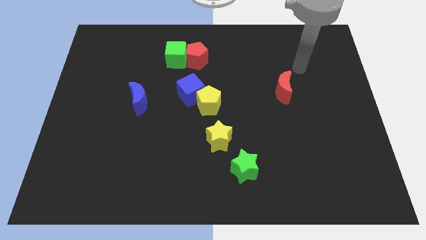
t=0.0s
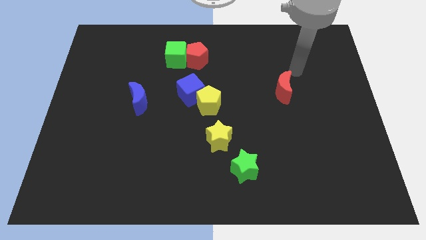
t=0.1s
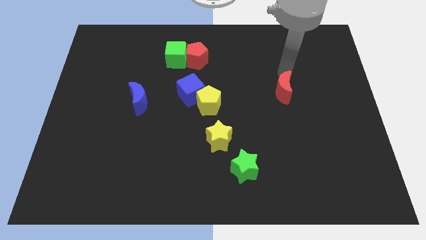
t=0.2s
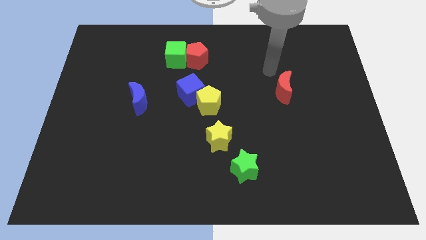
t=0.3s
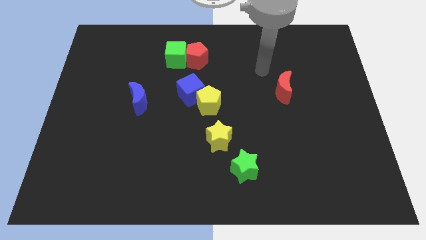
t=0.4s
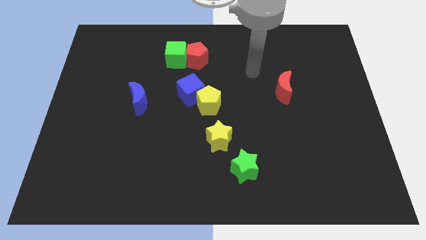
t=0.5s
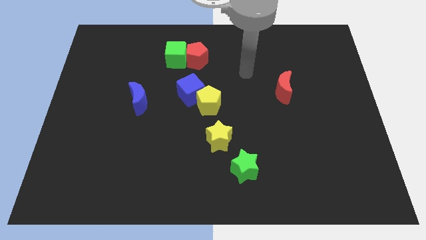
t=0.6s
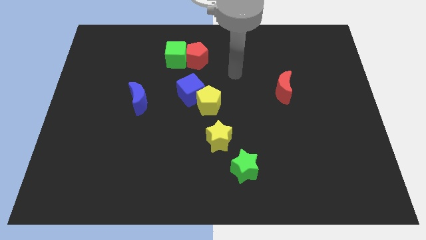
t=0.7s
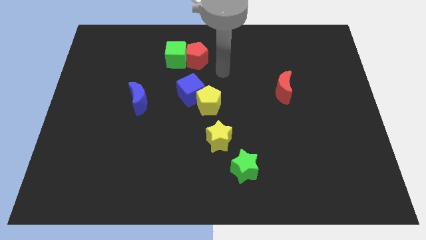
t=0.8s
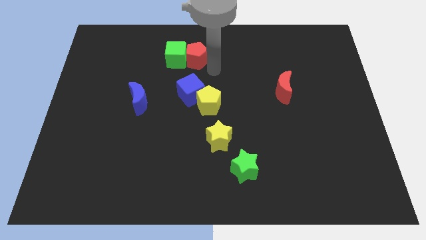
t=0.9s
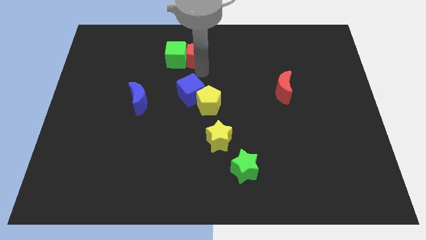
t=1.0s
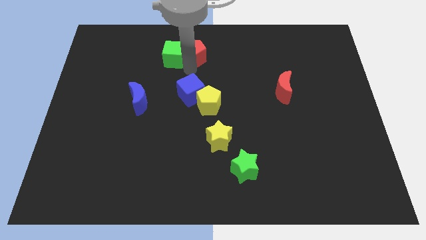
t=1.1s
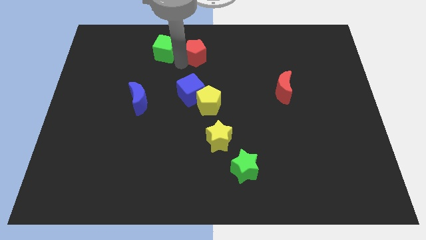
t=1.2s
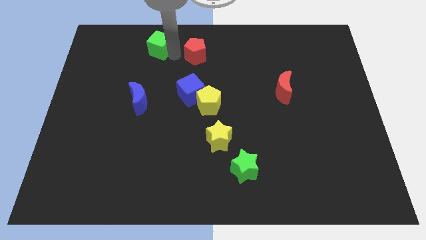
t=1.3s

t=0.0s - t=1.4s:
move the red pentagon away from the green cube

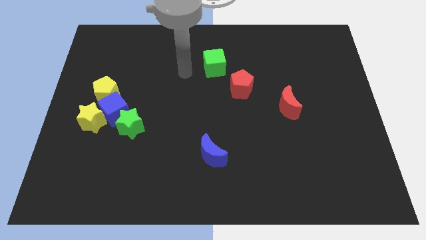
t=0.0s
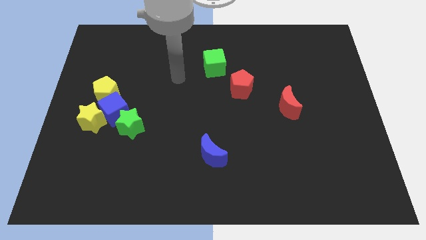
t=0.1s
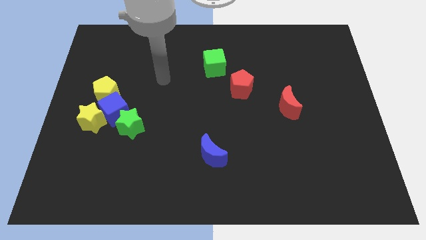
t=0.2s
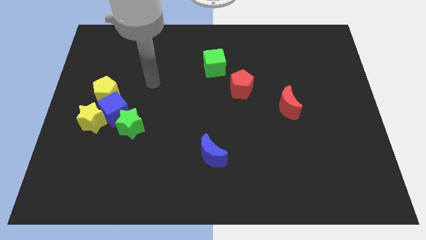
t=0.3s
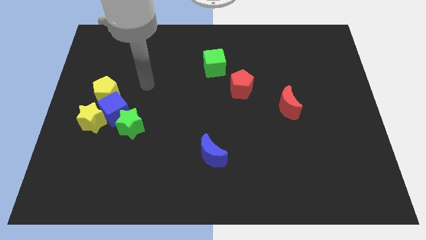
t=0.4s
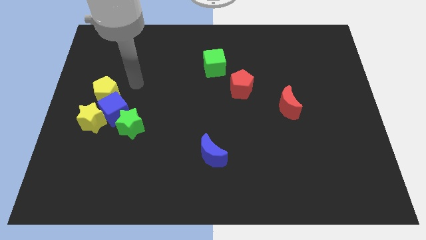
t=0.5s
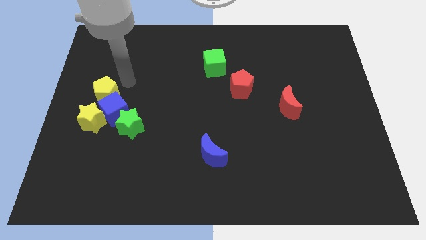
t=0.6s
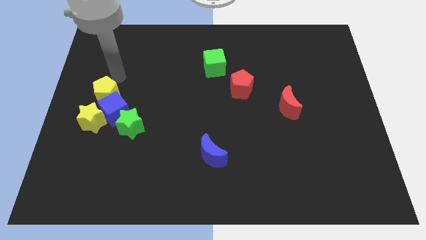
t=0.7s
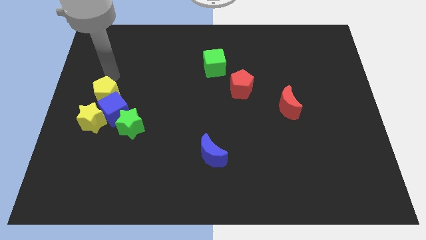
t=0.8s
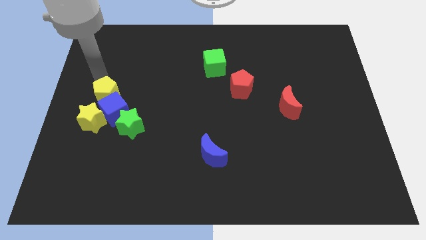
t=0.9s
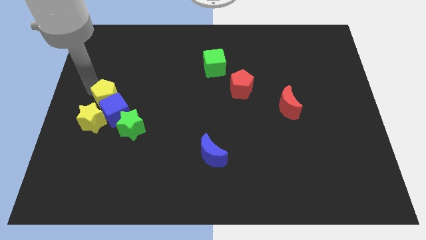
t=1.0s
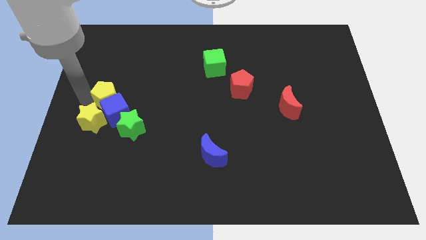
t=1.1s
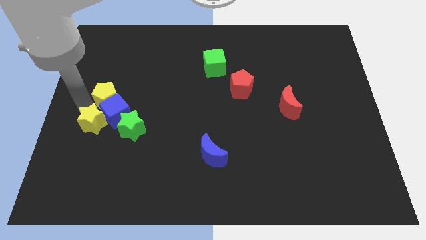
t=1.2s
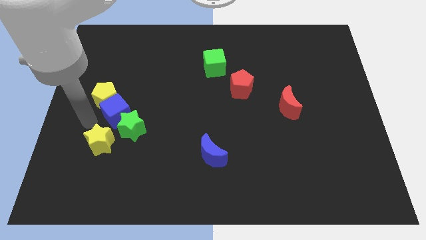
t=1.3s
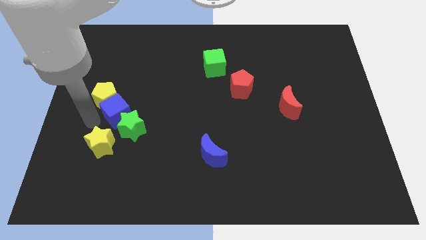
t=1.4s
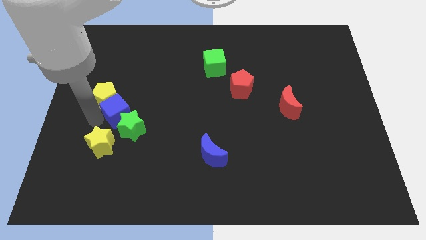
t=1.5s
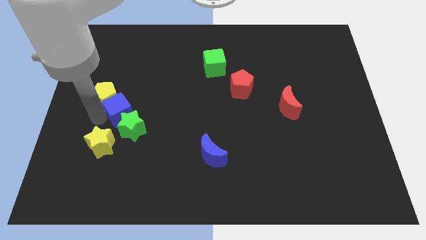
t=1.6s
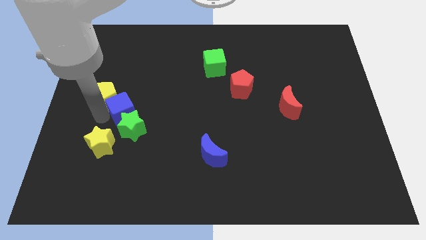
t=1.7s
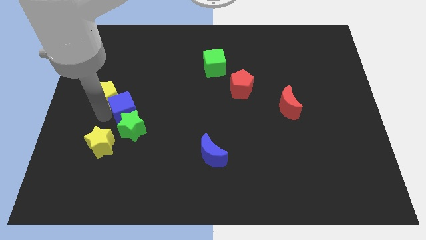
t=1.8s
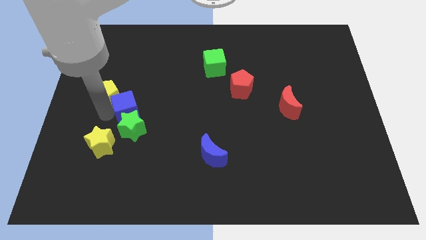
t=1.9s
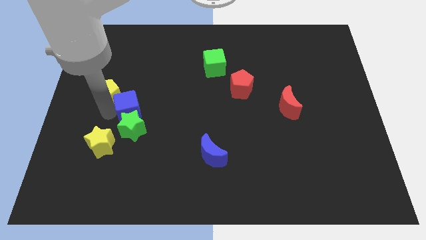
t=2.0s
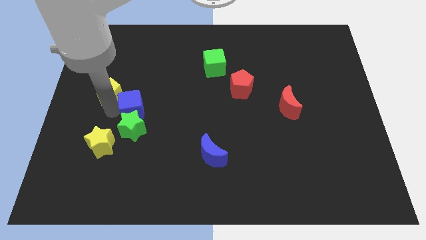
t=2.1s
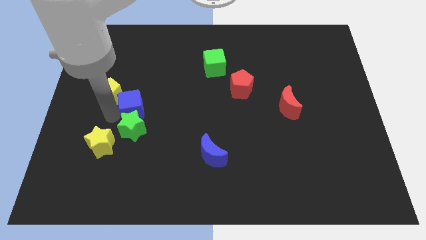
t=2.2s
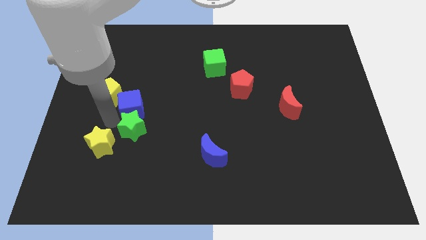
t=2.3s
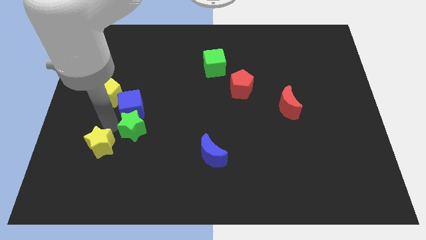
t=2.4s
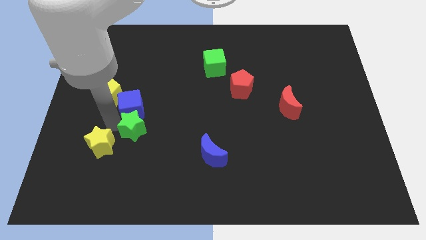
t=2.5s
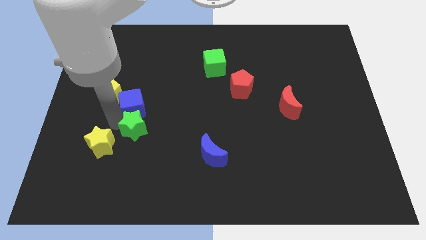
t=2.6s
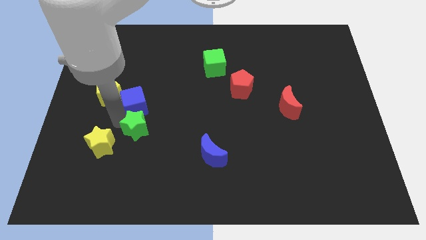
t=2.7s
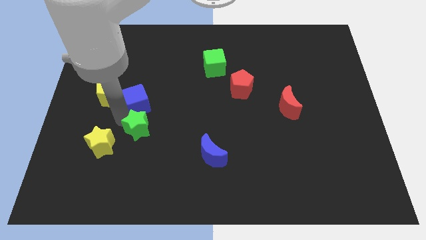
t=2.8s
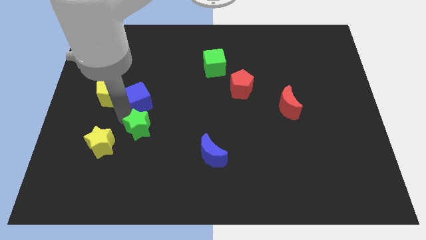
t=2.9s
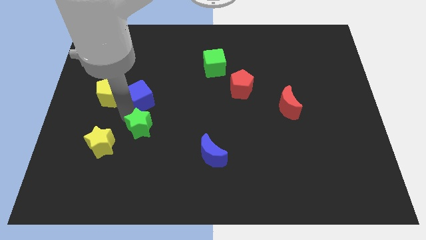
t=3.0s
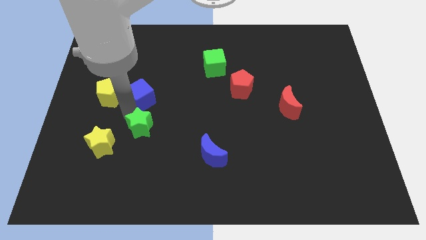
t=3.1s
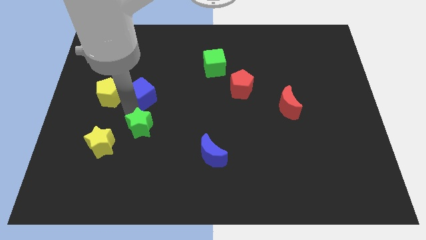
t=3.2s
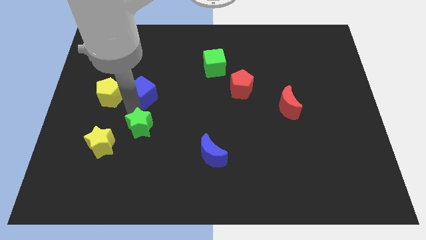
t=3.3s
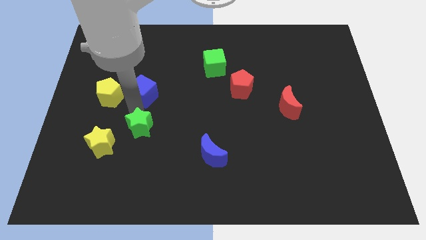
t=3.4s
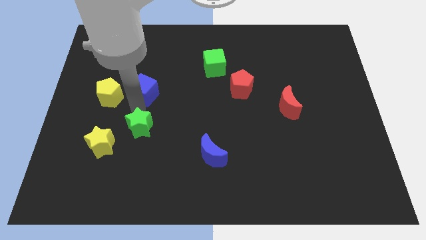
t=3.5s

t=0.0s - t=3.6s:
pull the blue cube apart from the group

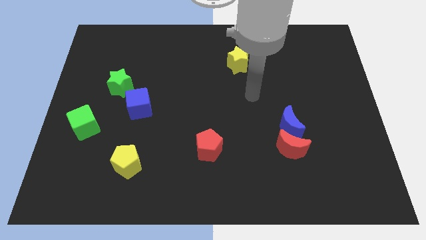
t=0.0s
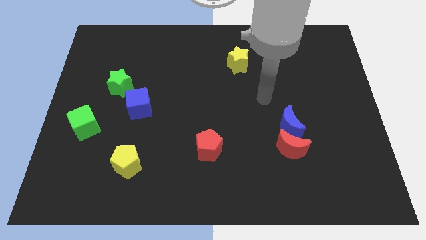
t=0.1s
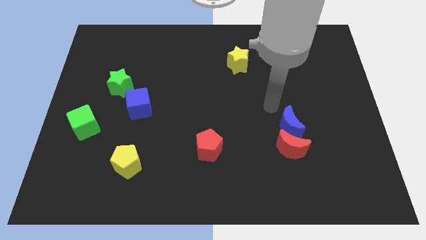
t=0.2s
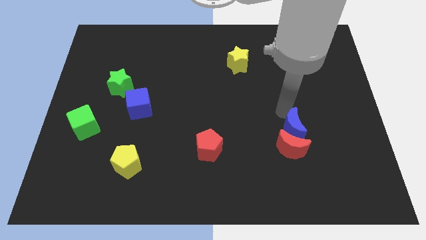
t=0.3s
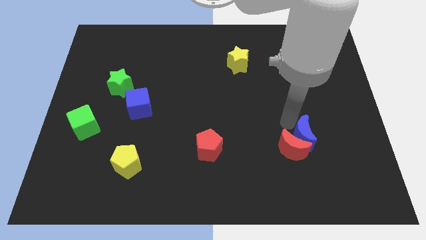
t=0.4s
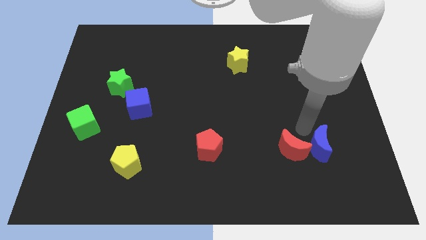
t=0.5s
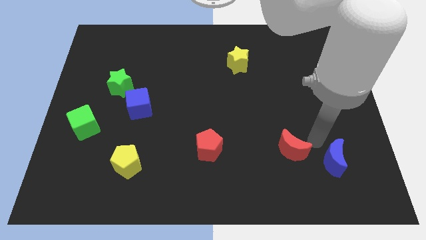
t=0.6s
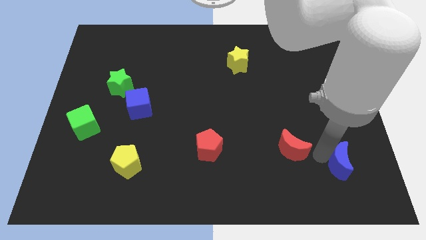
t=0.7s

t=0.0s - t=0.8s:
pull the red moon apart from the blue moon

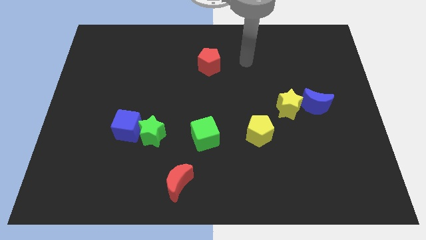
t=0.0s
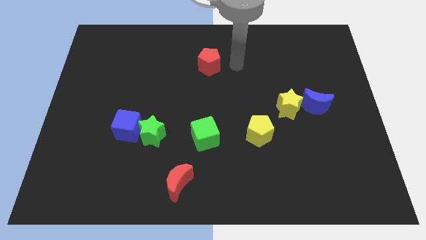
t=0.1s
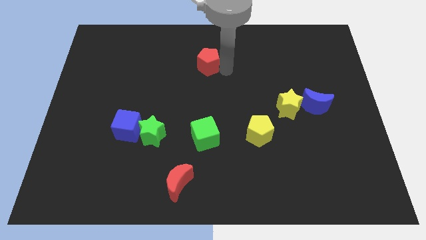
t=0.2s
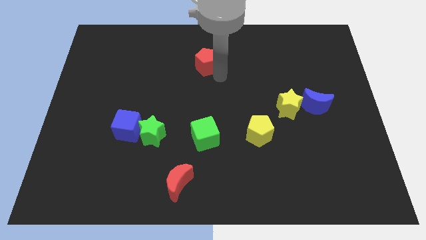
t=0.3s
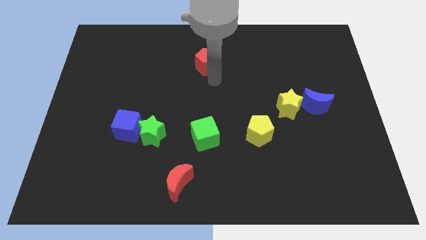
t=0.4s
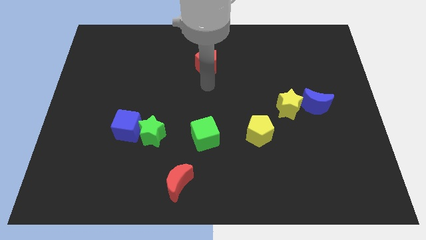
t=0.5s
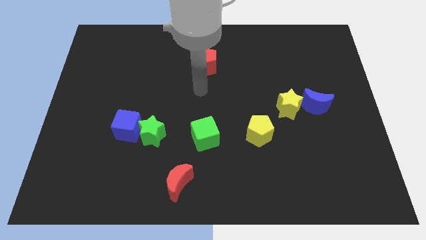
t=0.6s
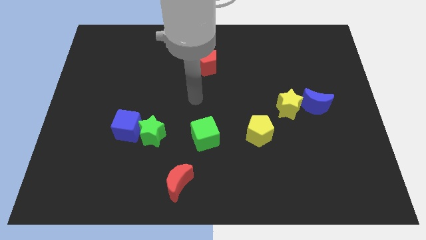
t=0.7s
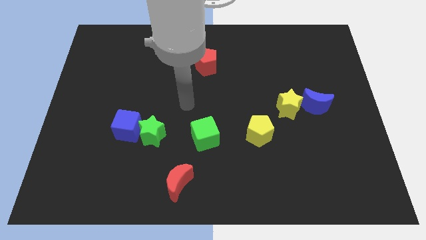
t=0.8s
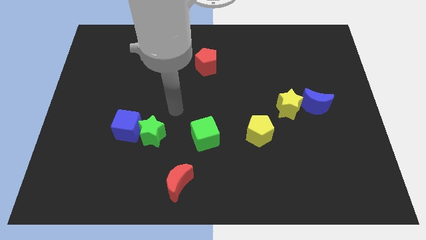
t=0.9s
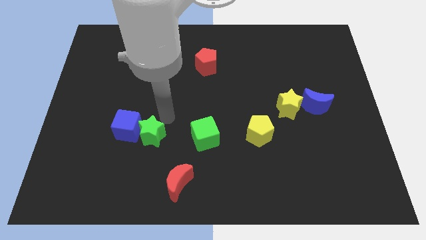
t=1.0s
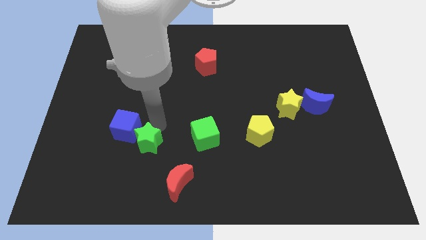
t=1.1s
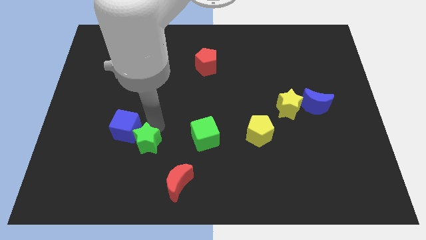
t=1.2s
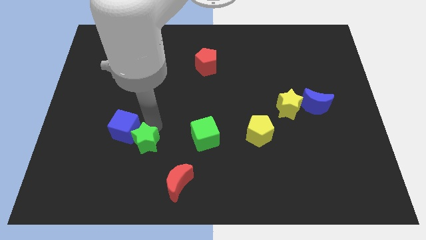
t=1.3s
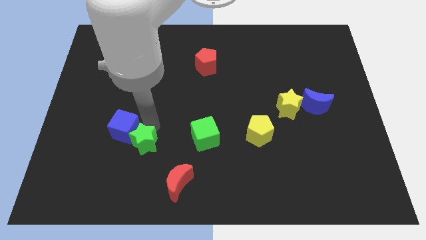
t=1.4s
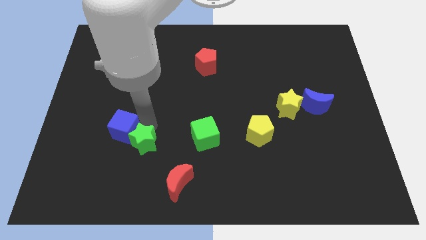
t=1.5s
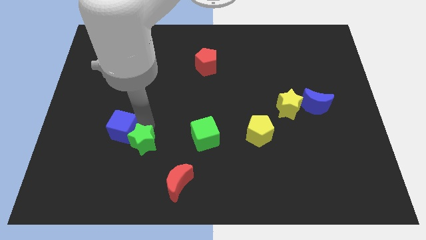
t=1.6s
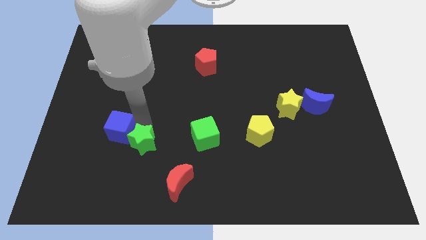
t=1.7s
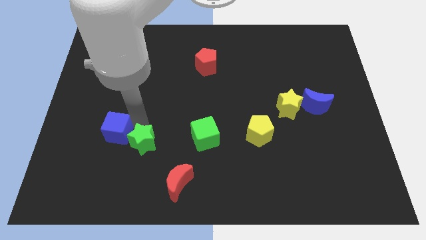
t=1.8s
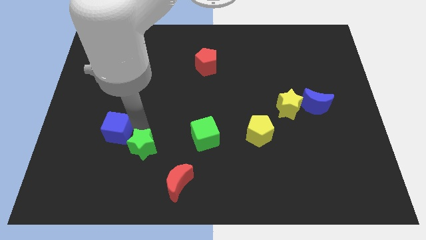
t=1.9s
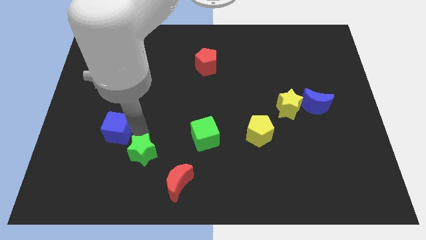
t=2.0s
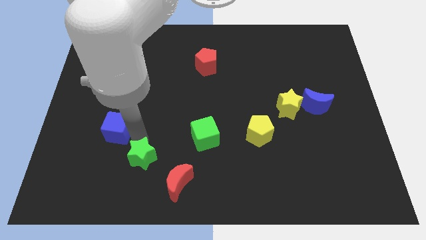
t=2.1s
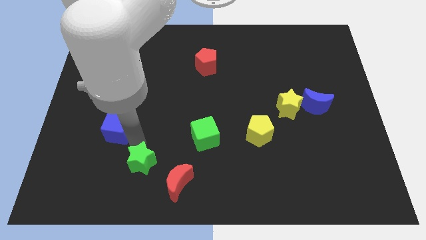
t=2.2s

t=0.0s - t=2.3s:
pull the blue cube apart from the green star

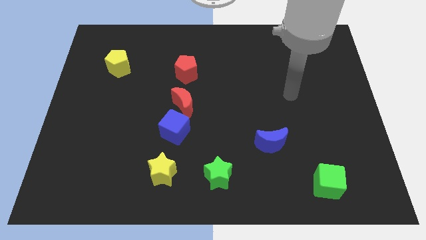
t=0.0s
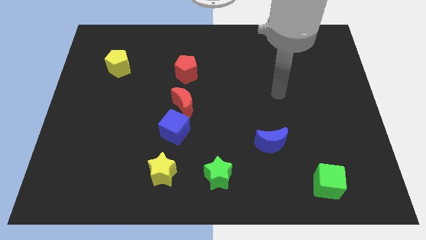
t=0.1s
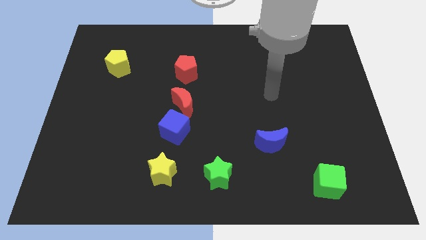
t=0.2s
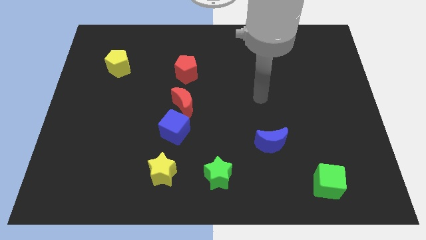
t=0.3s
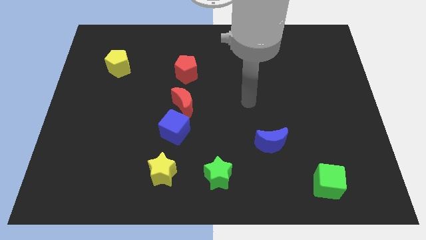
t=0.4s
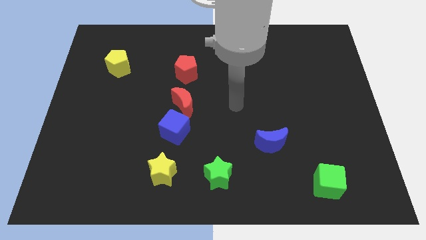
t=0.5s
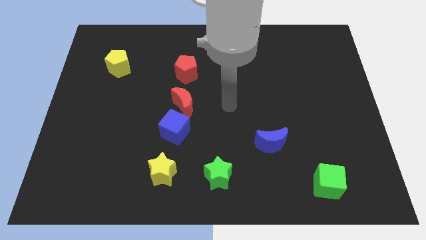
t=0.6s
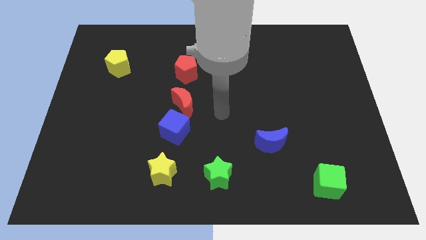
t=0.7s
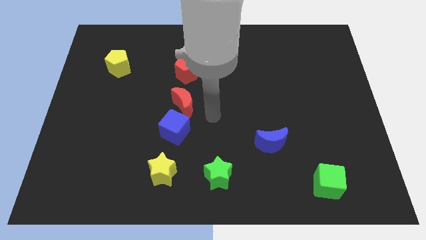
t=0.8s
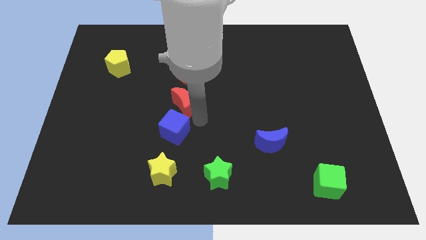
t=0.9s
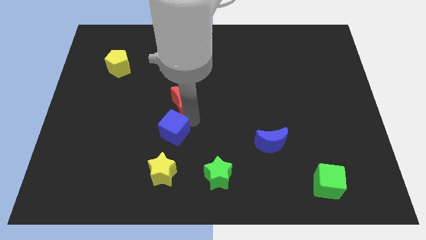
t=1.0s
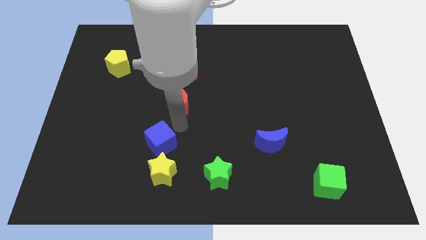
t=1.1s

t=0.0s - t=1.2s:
move the red moon away from the blue cube

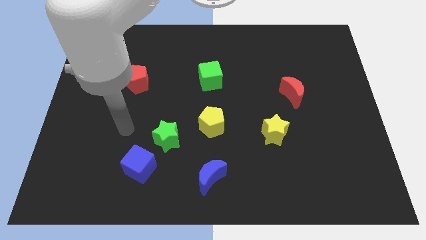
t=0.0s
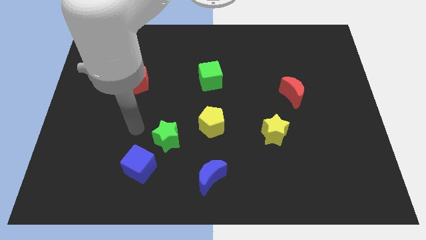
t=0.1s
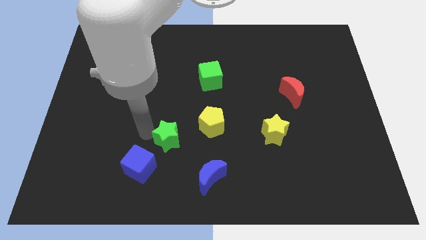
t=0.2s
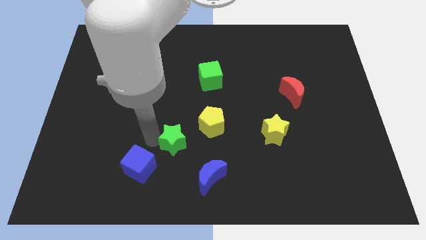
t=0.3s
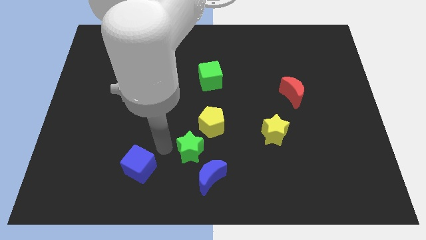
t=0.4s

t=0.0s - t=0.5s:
separate the blue cube from the green star
